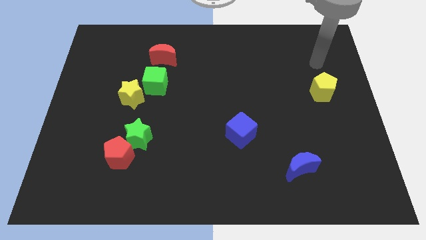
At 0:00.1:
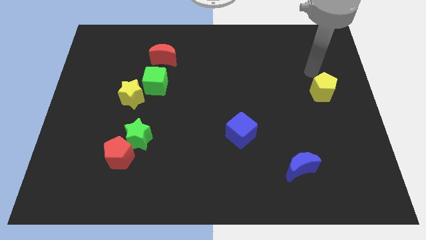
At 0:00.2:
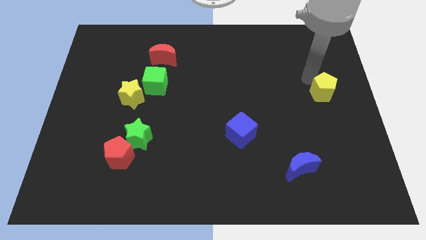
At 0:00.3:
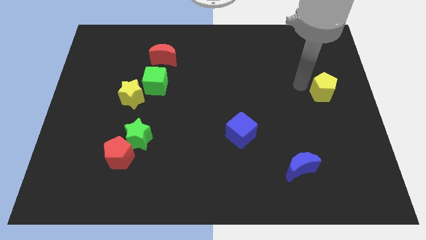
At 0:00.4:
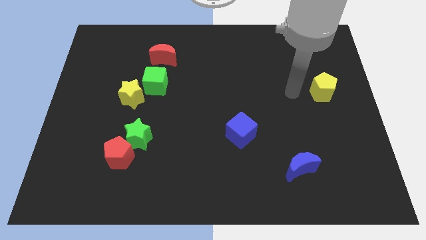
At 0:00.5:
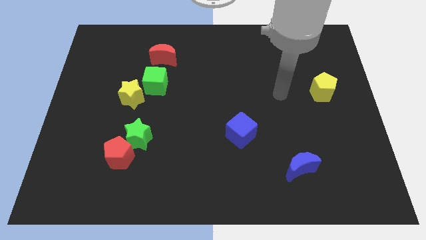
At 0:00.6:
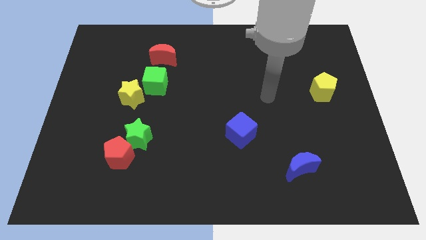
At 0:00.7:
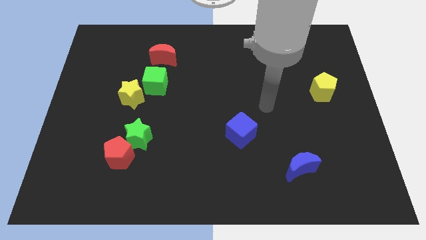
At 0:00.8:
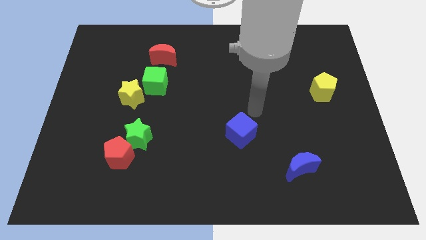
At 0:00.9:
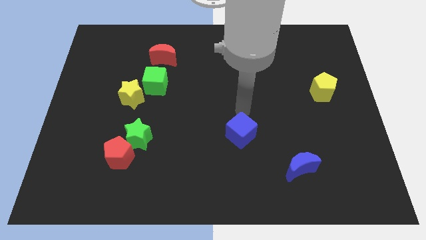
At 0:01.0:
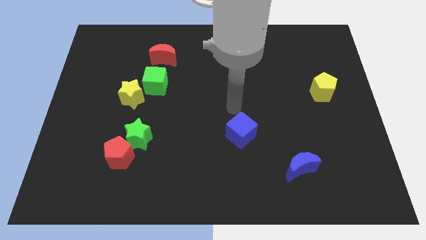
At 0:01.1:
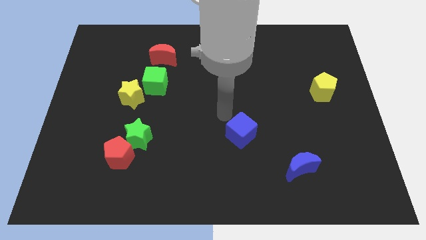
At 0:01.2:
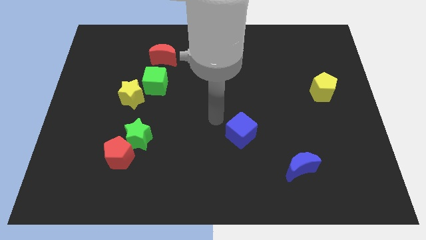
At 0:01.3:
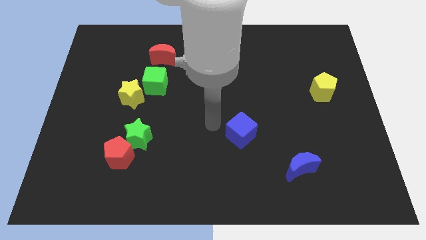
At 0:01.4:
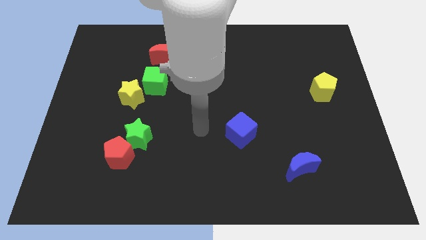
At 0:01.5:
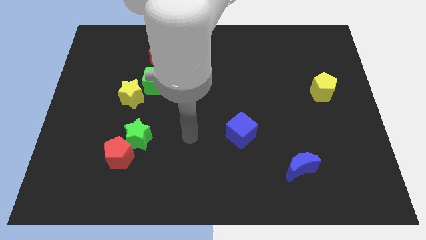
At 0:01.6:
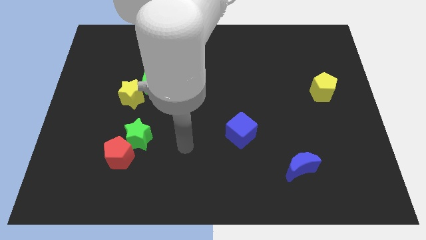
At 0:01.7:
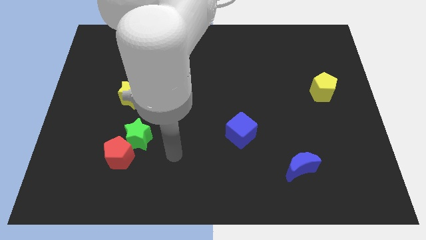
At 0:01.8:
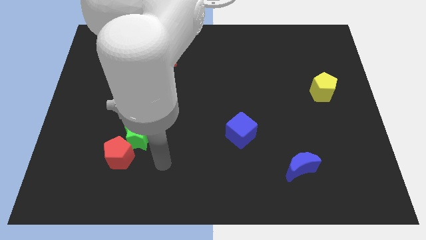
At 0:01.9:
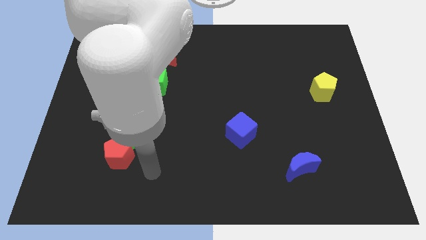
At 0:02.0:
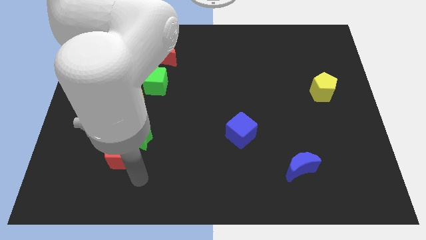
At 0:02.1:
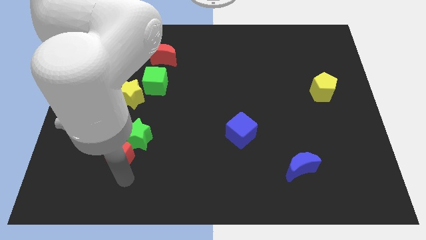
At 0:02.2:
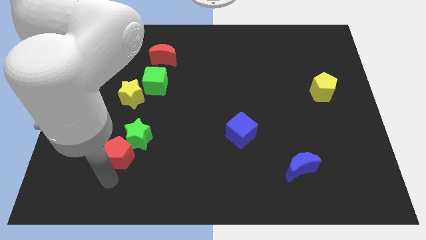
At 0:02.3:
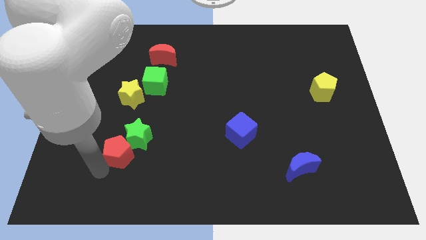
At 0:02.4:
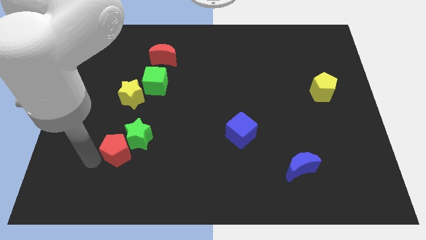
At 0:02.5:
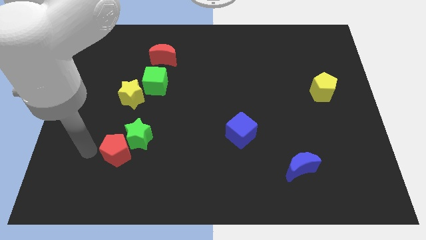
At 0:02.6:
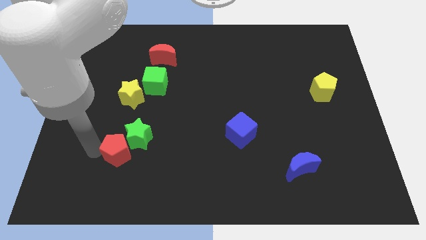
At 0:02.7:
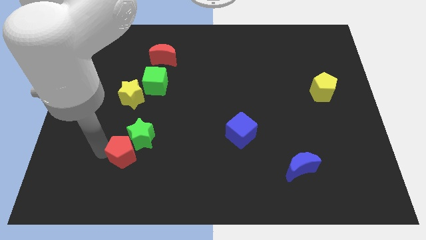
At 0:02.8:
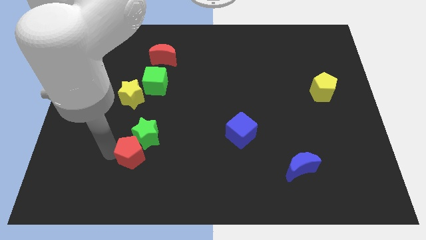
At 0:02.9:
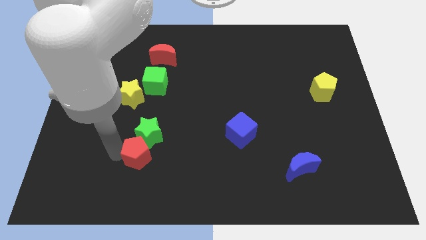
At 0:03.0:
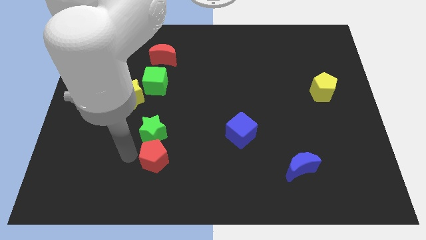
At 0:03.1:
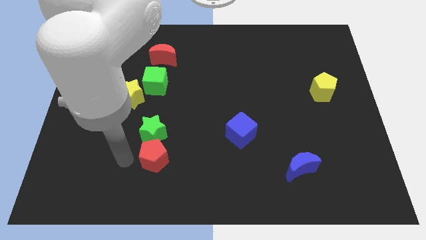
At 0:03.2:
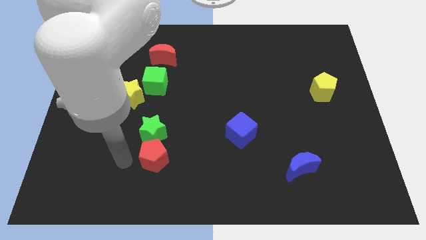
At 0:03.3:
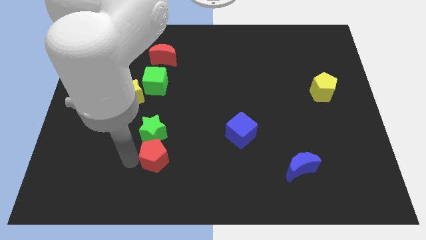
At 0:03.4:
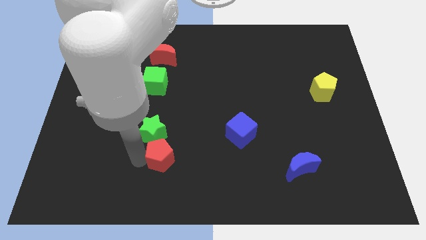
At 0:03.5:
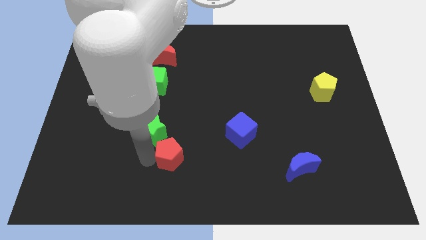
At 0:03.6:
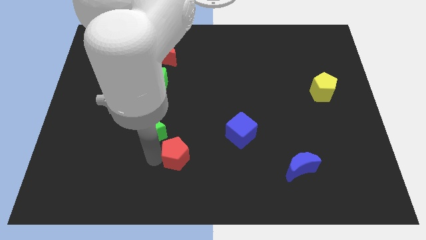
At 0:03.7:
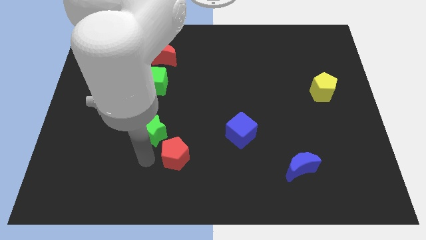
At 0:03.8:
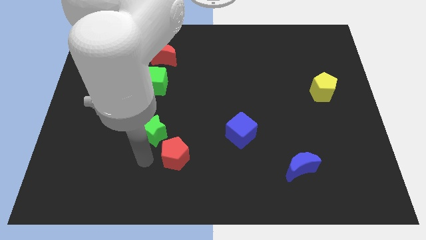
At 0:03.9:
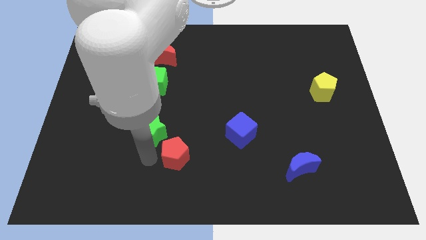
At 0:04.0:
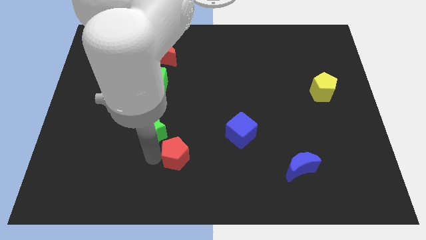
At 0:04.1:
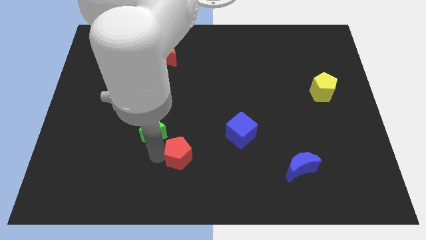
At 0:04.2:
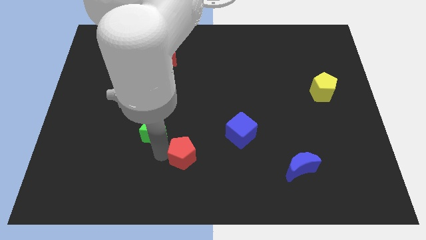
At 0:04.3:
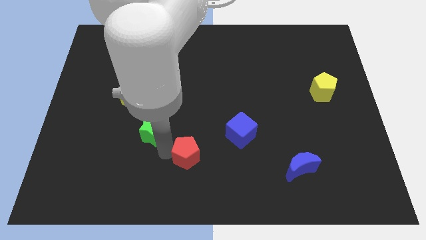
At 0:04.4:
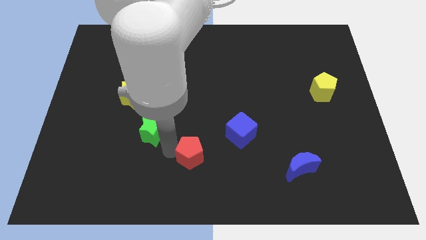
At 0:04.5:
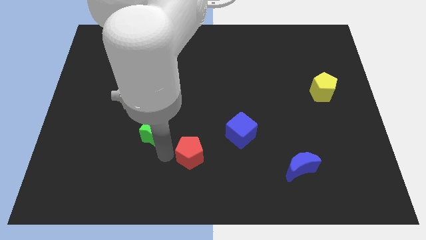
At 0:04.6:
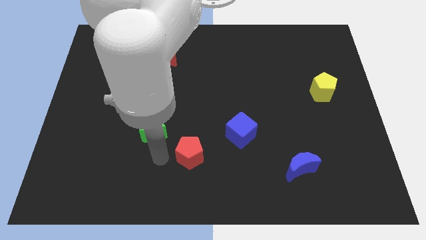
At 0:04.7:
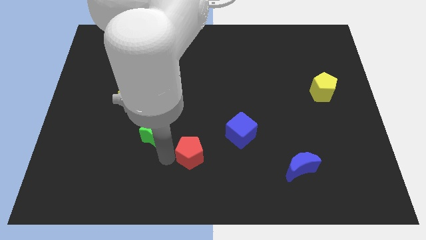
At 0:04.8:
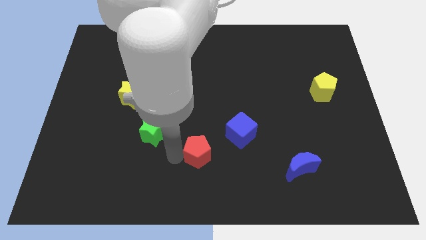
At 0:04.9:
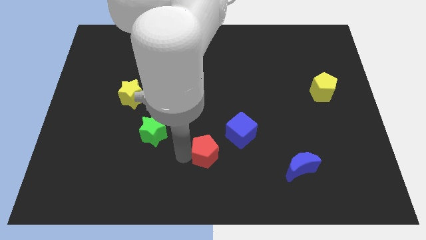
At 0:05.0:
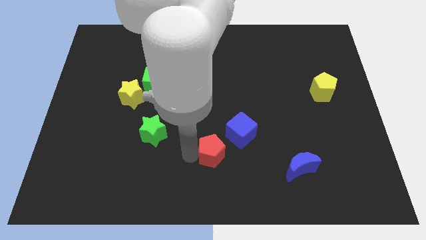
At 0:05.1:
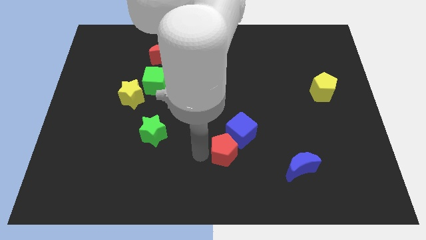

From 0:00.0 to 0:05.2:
slide the red pentagon right

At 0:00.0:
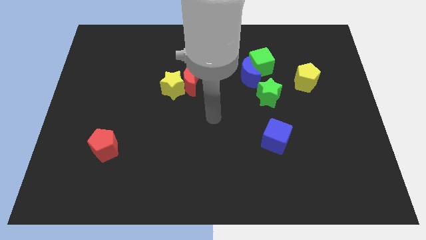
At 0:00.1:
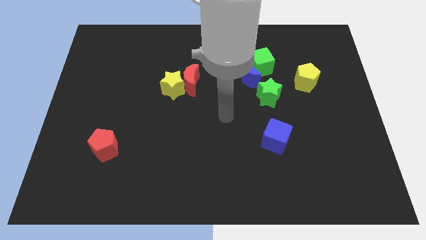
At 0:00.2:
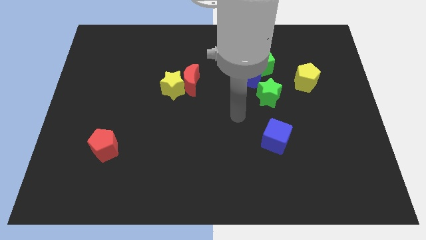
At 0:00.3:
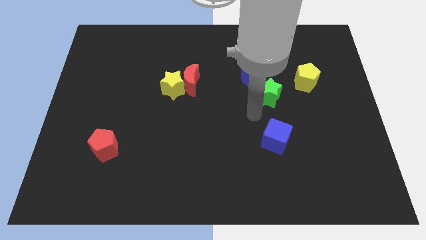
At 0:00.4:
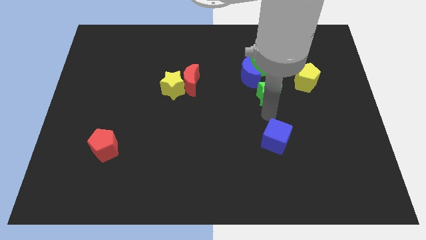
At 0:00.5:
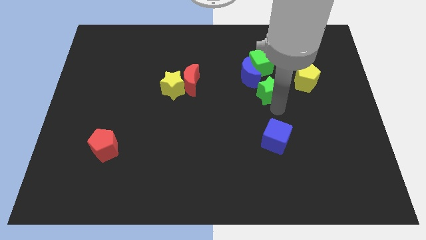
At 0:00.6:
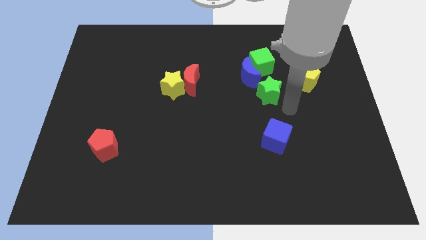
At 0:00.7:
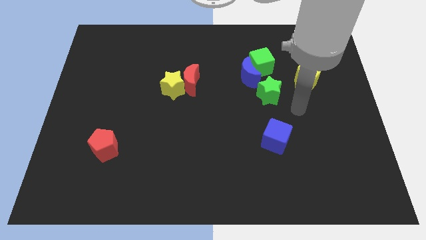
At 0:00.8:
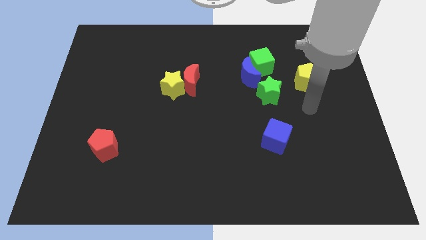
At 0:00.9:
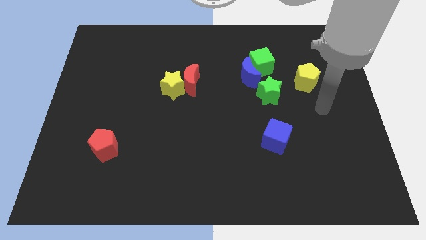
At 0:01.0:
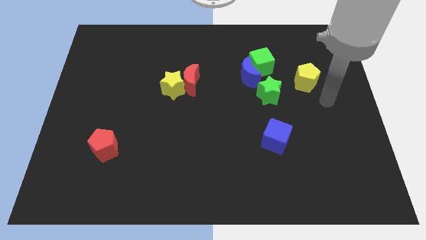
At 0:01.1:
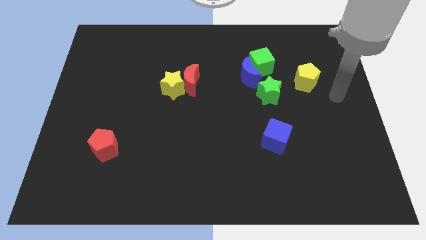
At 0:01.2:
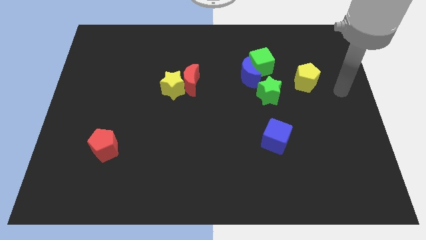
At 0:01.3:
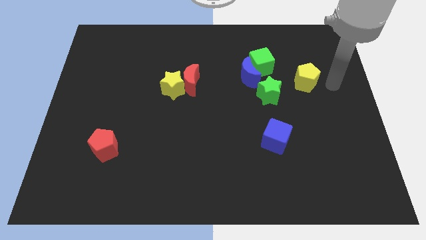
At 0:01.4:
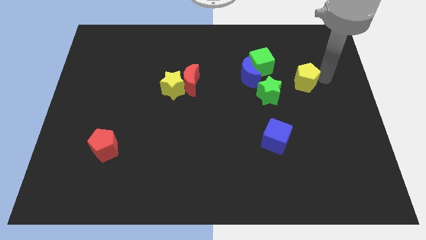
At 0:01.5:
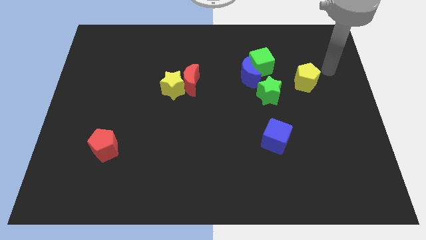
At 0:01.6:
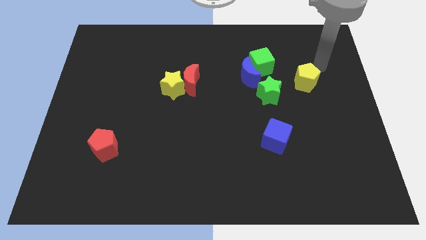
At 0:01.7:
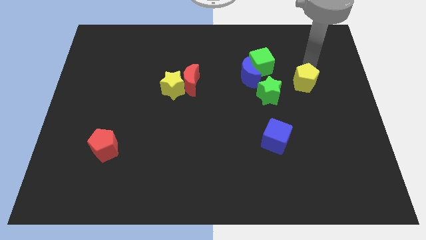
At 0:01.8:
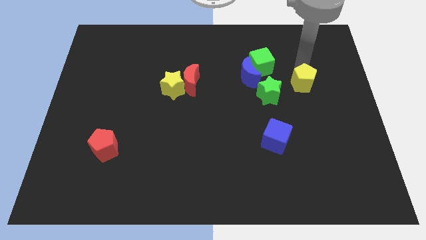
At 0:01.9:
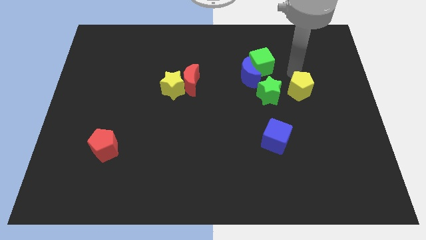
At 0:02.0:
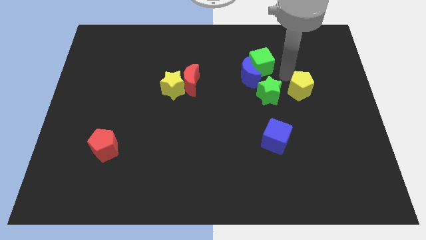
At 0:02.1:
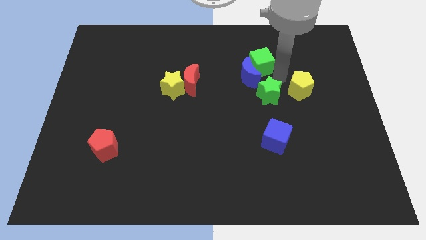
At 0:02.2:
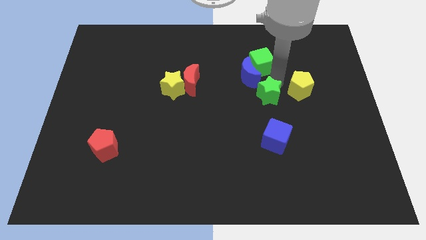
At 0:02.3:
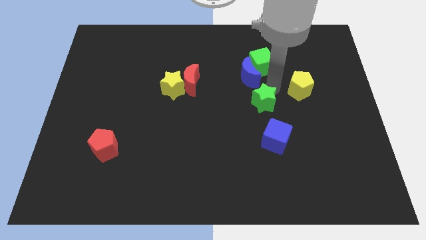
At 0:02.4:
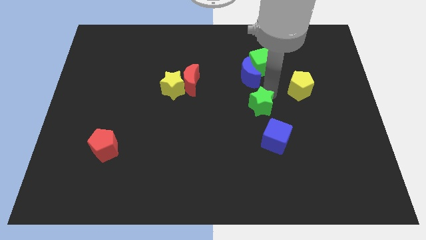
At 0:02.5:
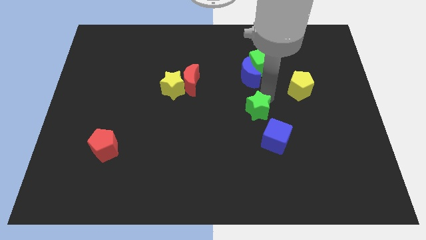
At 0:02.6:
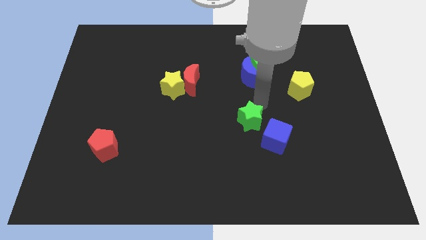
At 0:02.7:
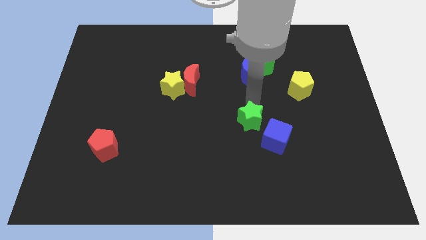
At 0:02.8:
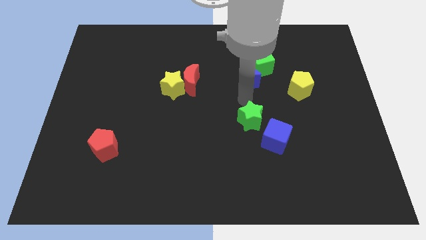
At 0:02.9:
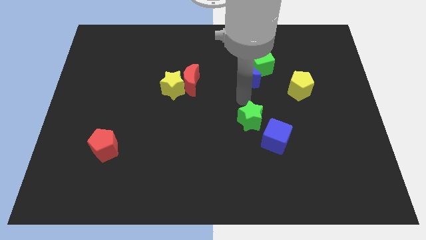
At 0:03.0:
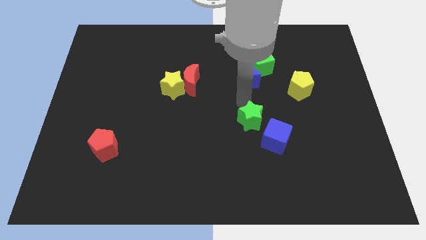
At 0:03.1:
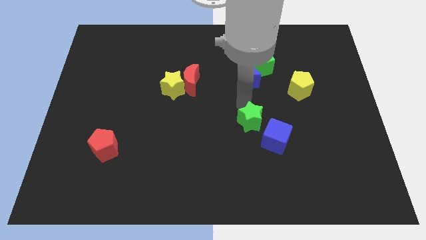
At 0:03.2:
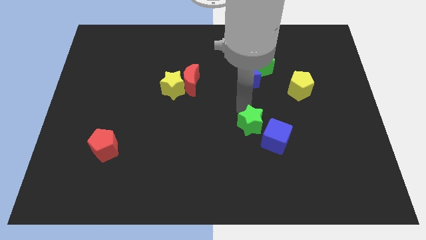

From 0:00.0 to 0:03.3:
move the green star downwards slightly
